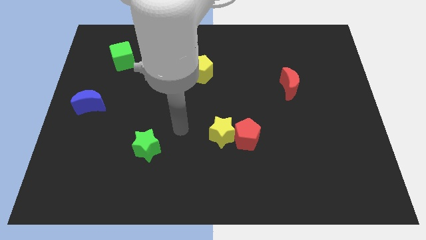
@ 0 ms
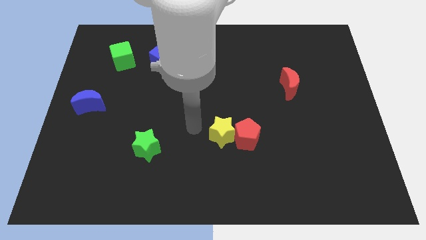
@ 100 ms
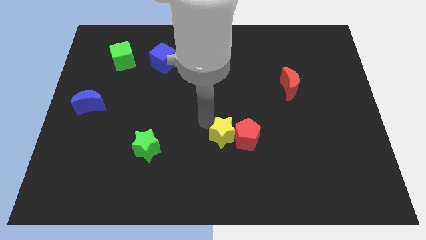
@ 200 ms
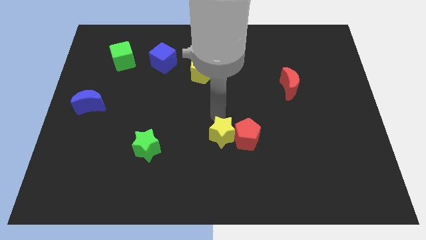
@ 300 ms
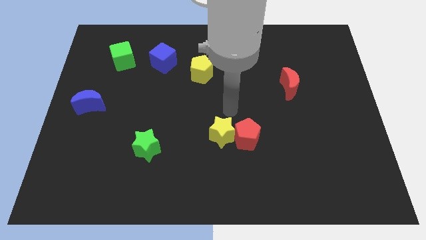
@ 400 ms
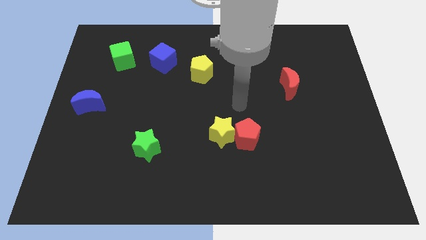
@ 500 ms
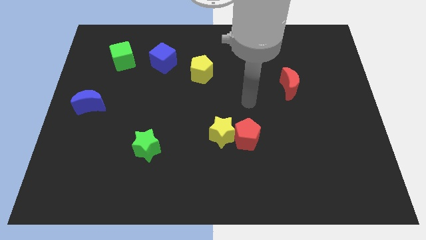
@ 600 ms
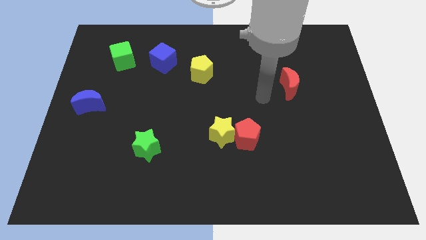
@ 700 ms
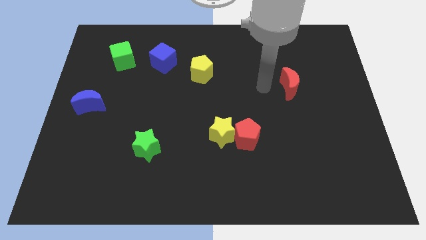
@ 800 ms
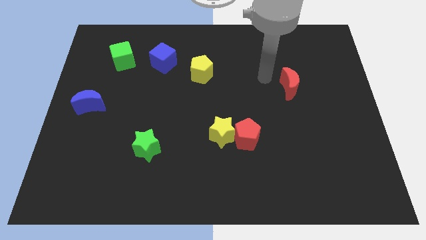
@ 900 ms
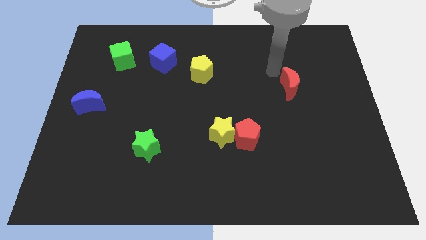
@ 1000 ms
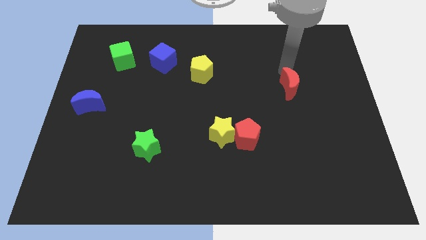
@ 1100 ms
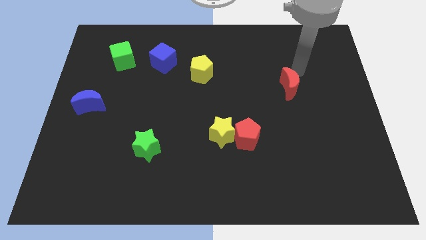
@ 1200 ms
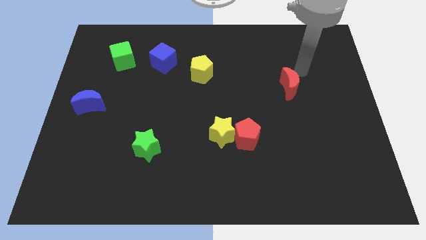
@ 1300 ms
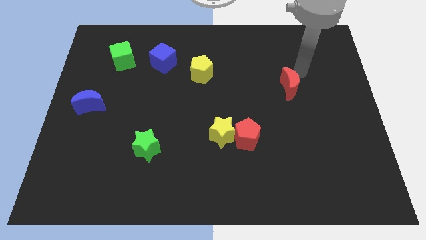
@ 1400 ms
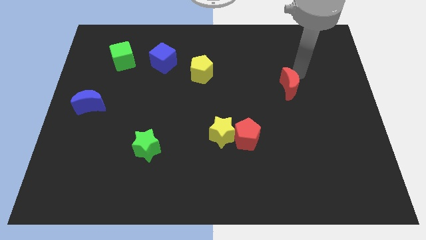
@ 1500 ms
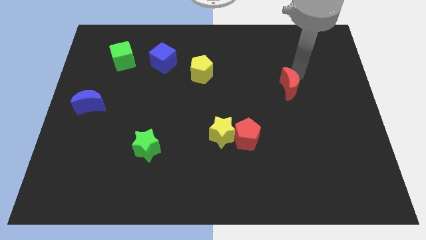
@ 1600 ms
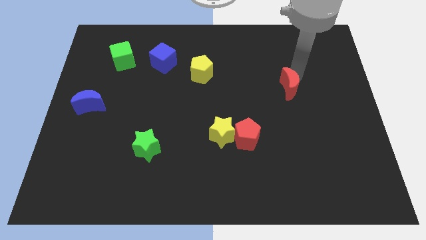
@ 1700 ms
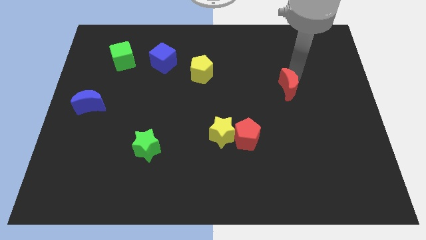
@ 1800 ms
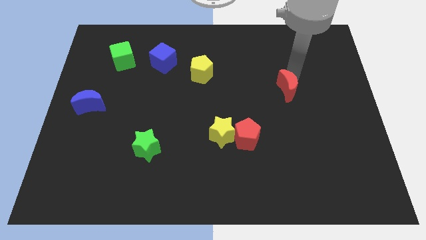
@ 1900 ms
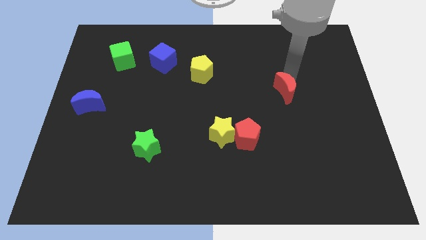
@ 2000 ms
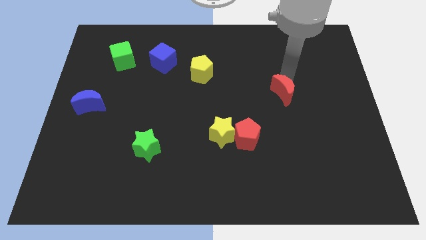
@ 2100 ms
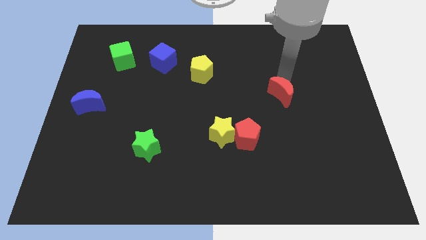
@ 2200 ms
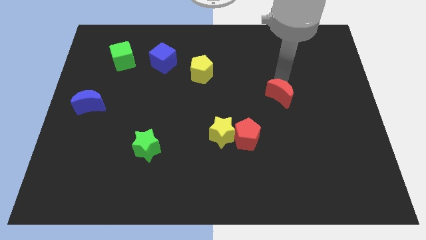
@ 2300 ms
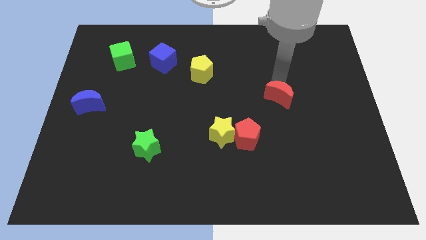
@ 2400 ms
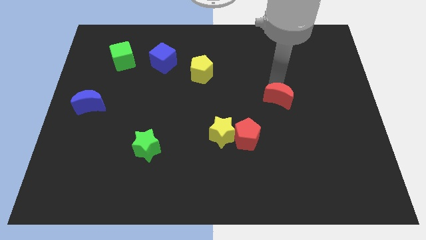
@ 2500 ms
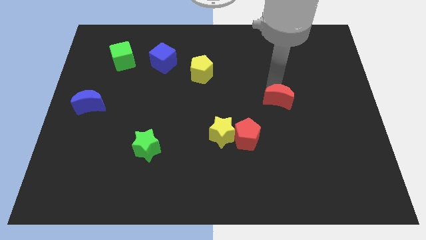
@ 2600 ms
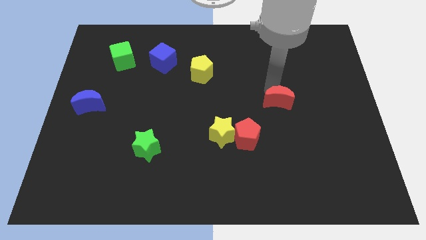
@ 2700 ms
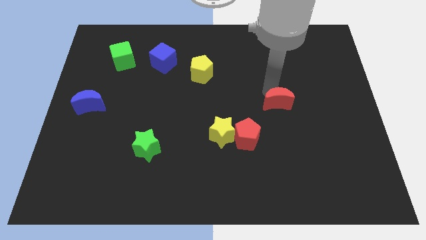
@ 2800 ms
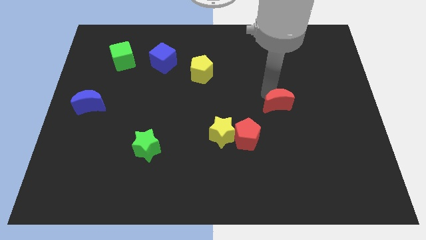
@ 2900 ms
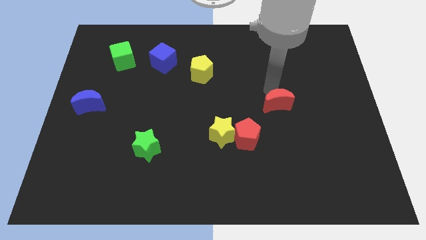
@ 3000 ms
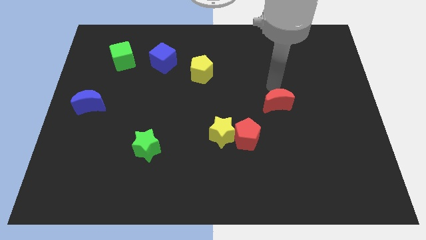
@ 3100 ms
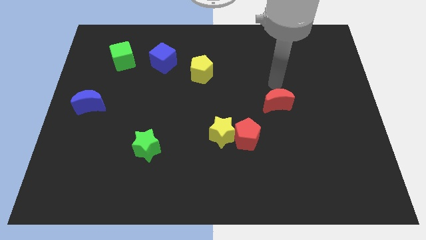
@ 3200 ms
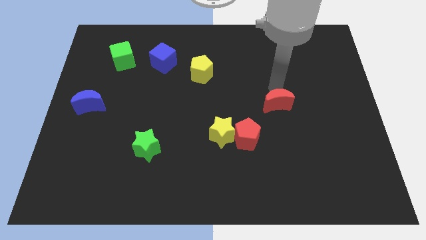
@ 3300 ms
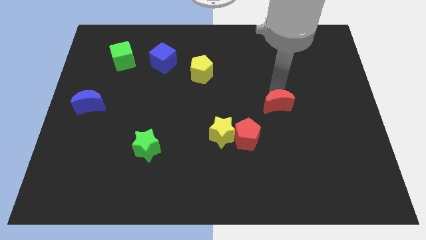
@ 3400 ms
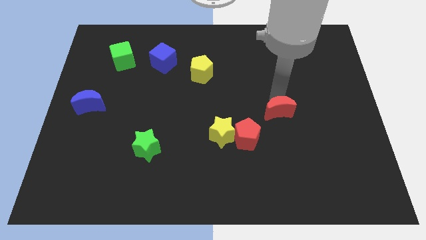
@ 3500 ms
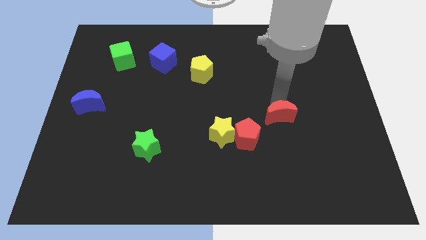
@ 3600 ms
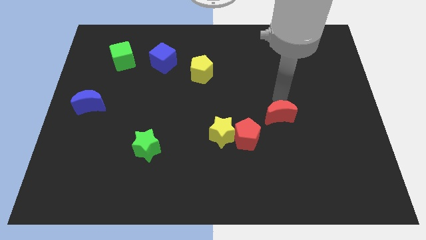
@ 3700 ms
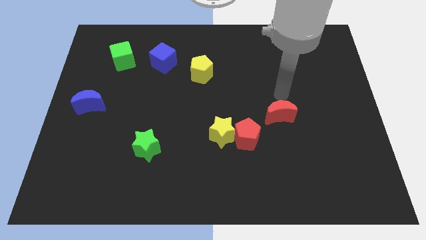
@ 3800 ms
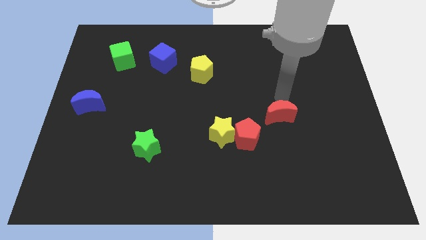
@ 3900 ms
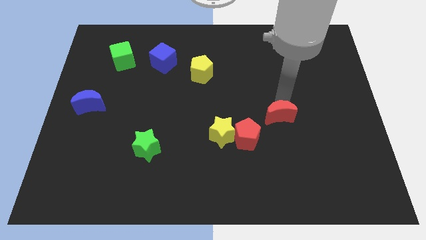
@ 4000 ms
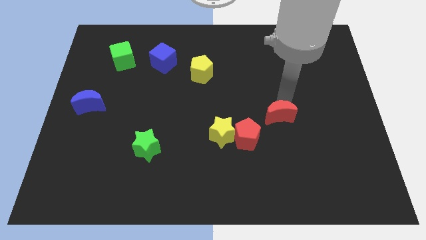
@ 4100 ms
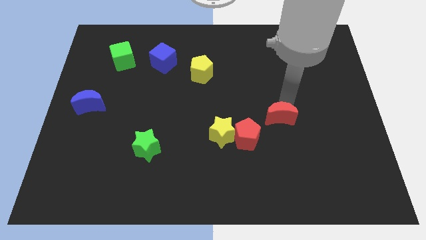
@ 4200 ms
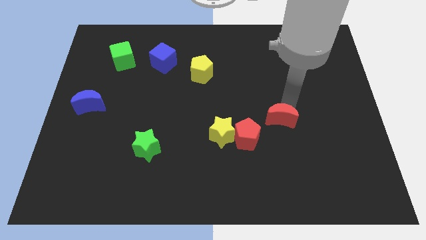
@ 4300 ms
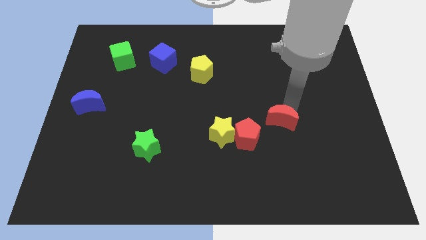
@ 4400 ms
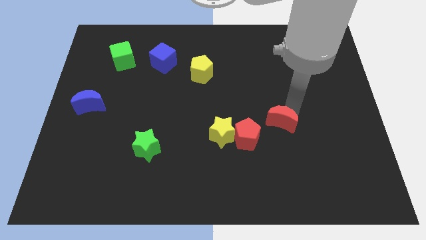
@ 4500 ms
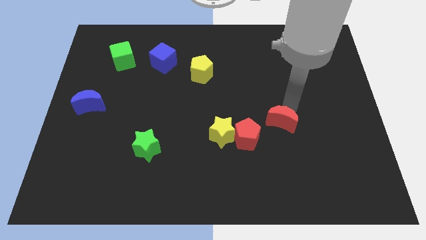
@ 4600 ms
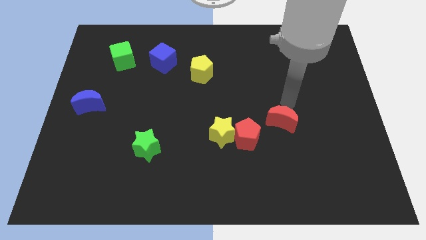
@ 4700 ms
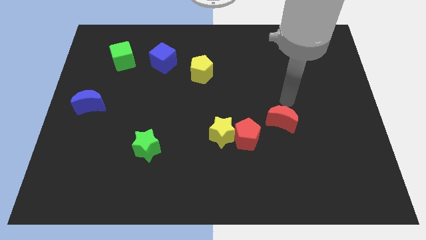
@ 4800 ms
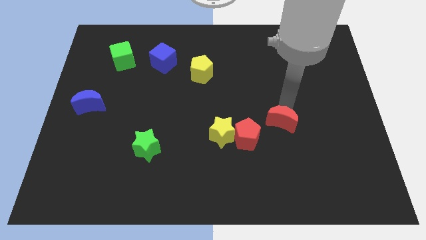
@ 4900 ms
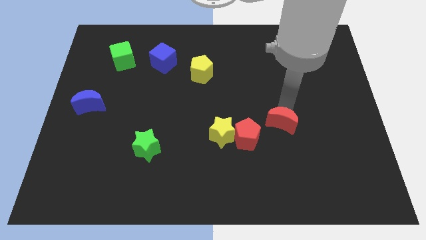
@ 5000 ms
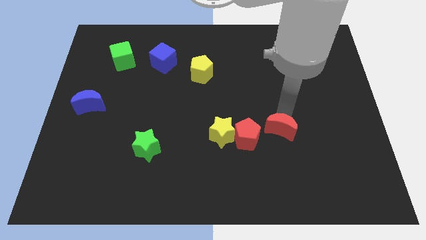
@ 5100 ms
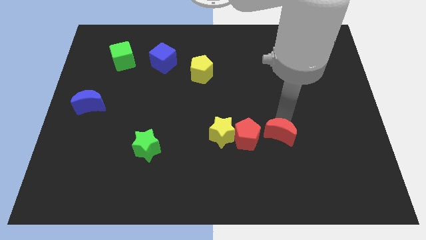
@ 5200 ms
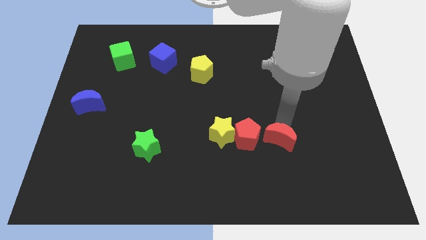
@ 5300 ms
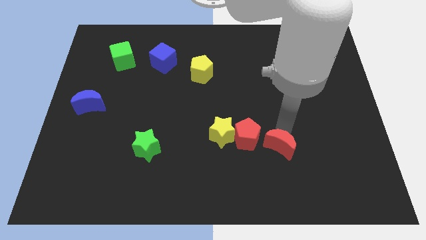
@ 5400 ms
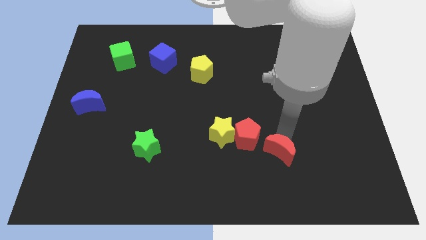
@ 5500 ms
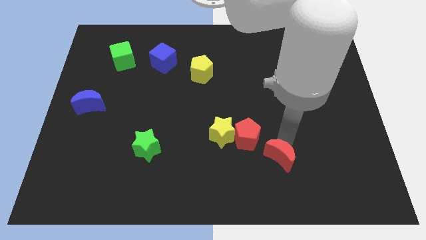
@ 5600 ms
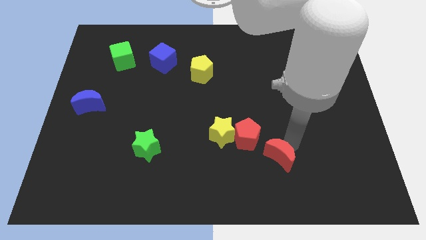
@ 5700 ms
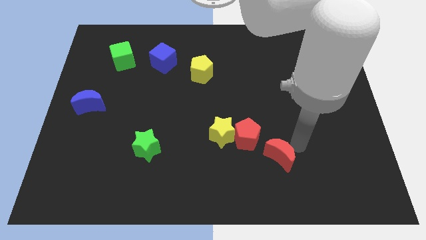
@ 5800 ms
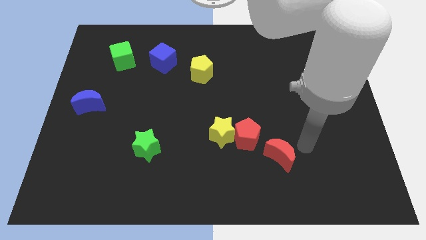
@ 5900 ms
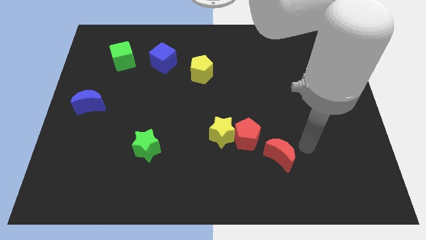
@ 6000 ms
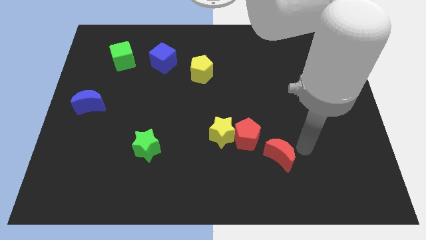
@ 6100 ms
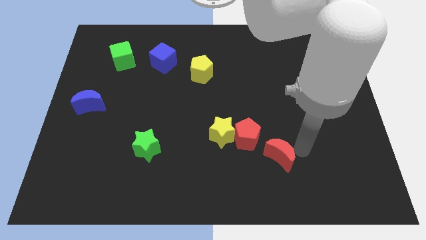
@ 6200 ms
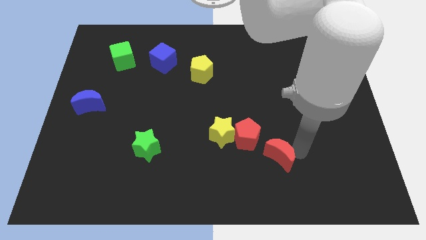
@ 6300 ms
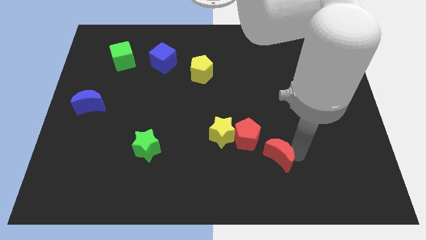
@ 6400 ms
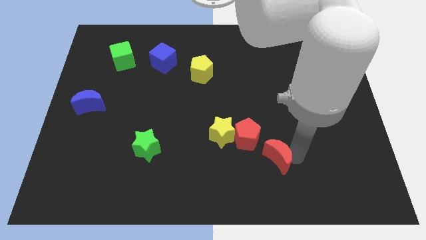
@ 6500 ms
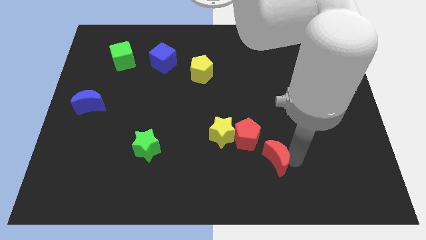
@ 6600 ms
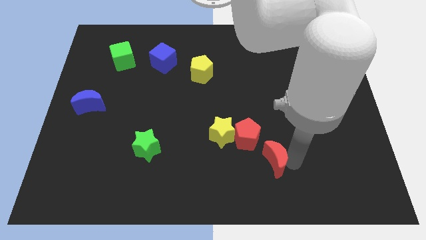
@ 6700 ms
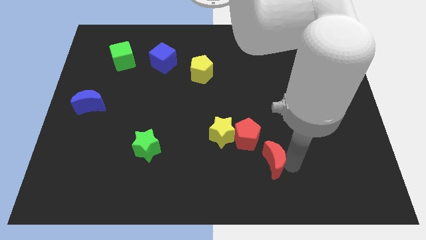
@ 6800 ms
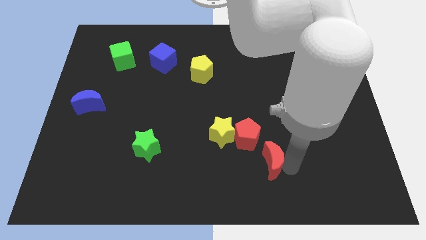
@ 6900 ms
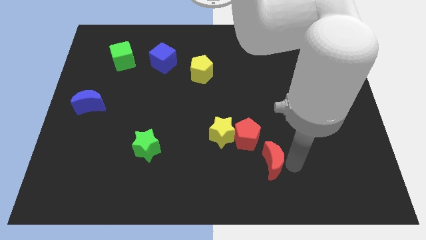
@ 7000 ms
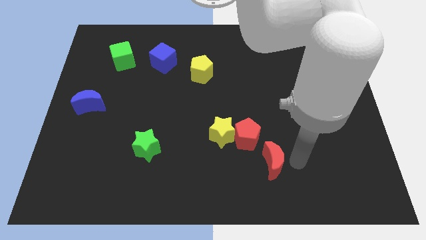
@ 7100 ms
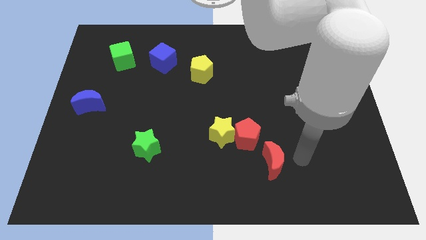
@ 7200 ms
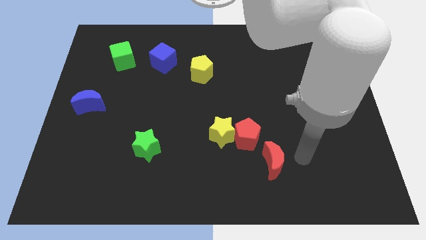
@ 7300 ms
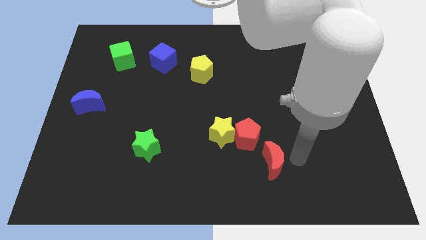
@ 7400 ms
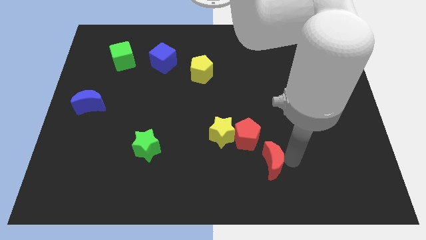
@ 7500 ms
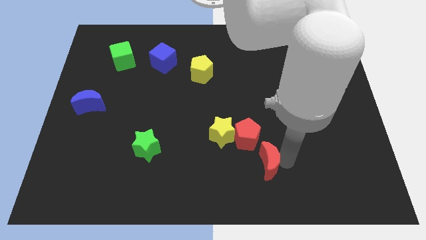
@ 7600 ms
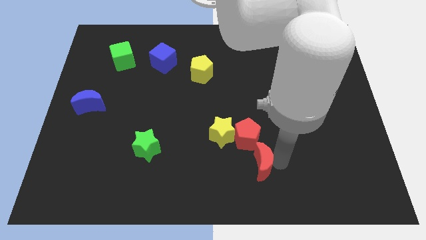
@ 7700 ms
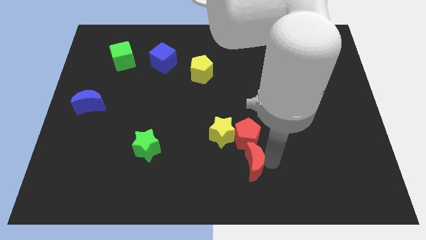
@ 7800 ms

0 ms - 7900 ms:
move the red moon to the bottom side
